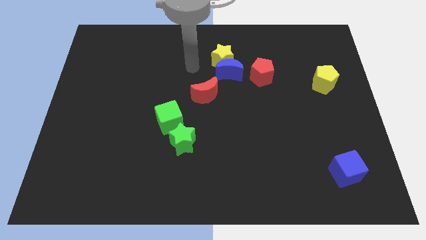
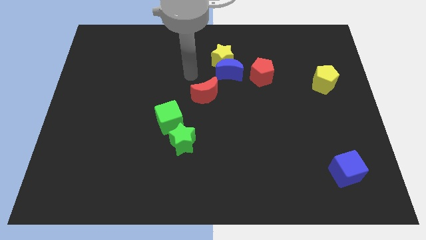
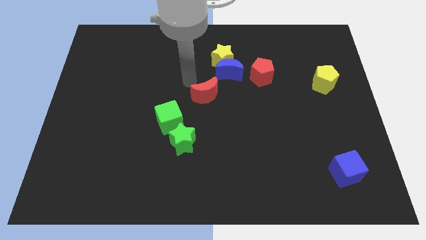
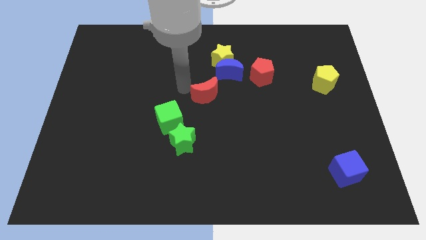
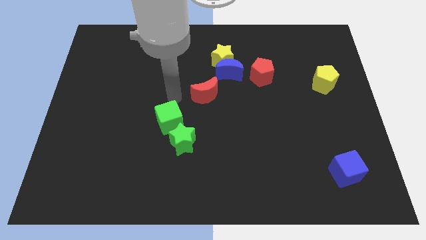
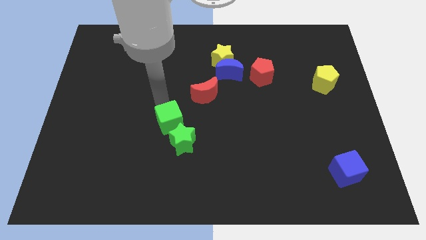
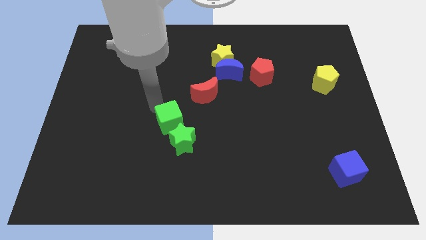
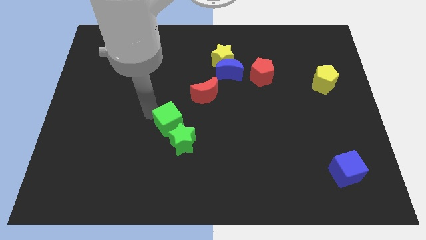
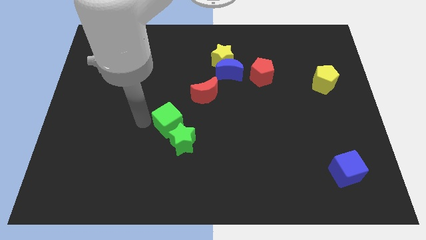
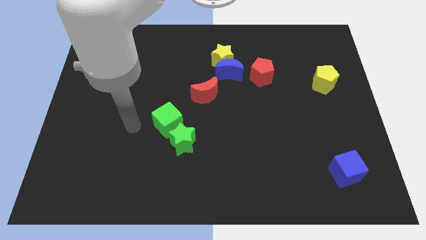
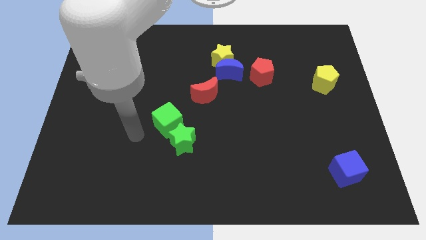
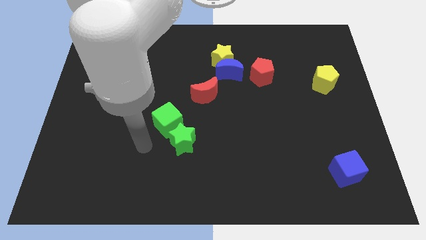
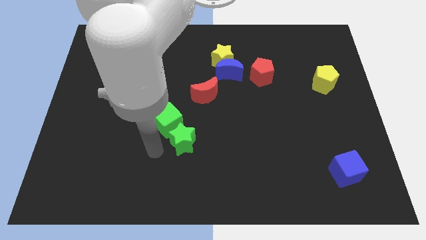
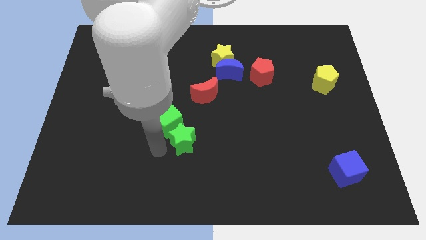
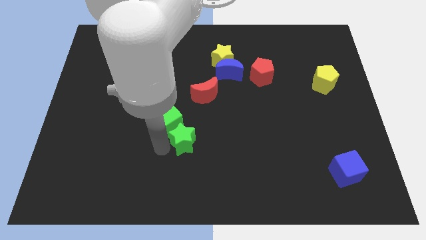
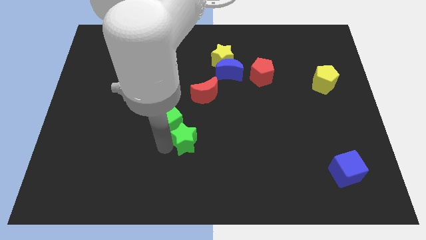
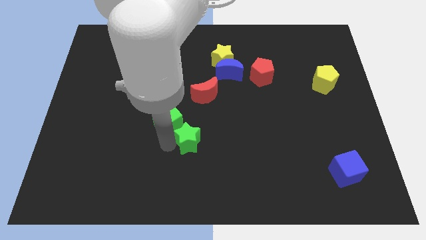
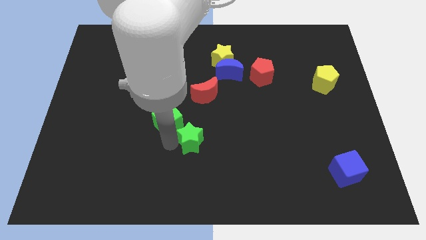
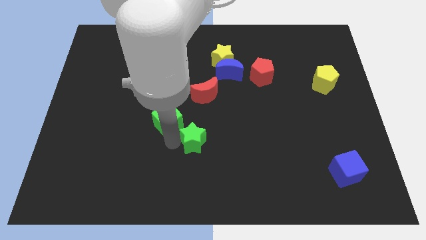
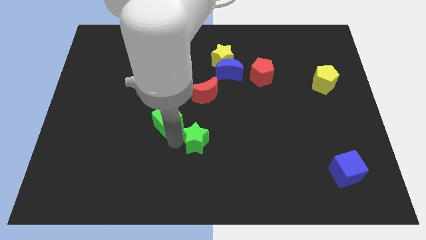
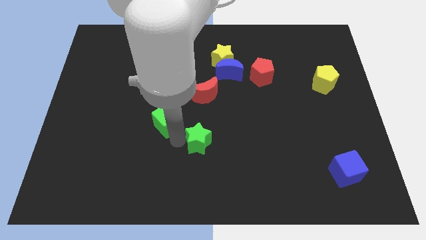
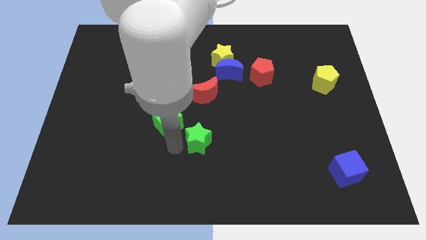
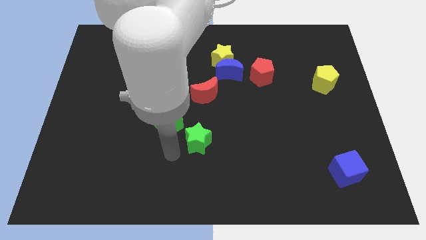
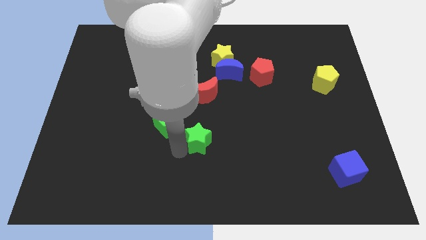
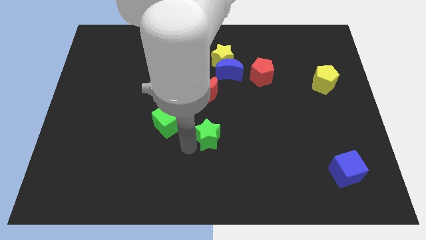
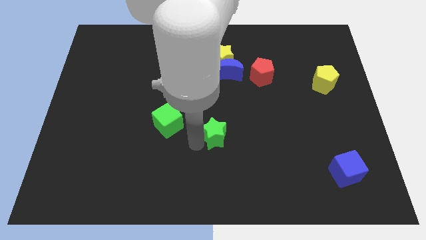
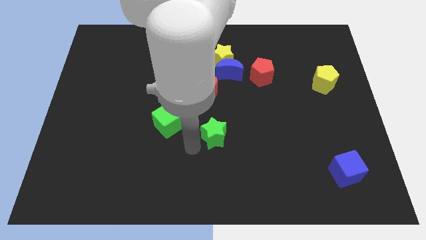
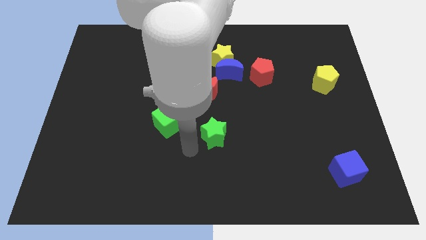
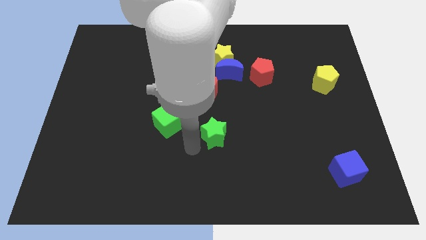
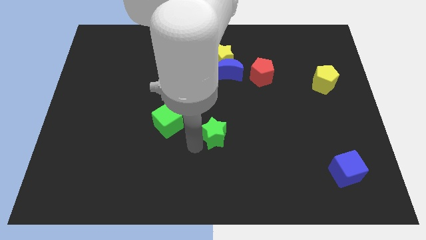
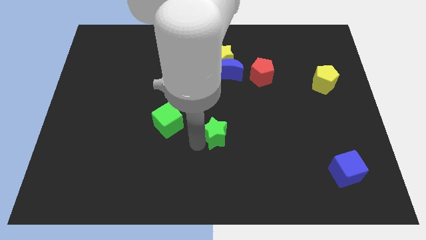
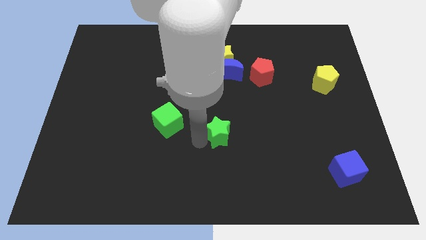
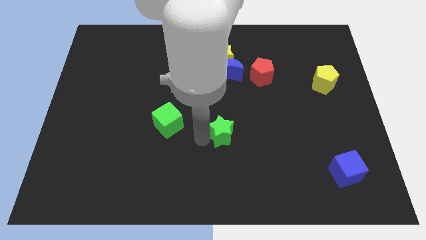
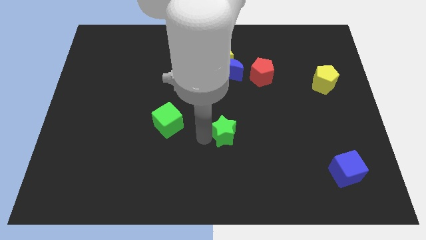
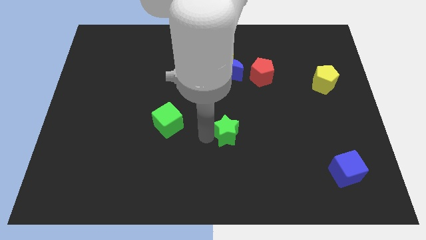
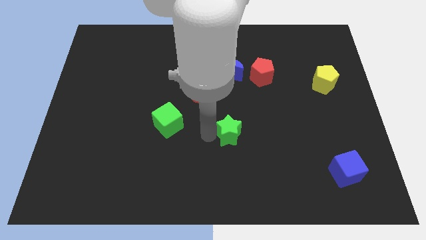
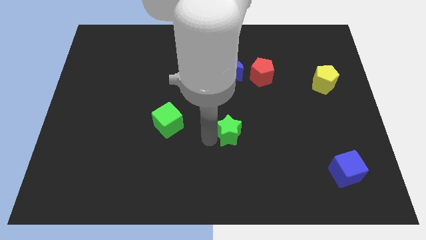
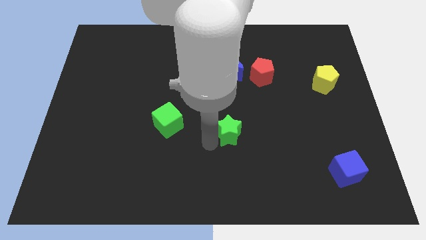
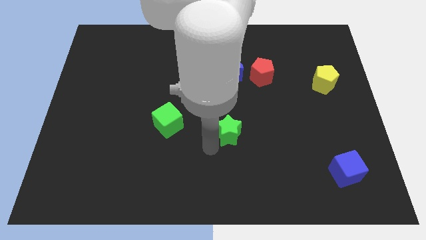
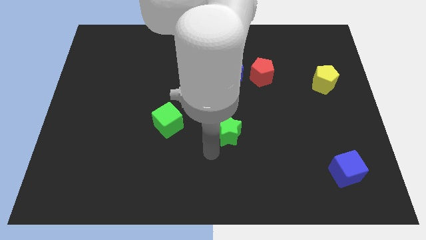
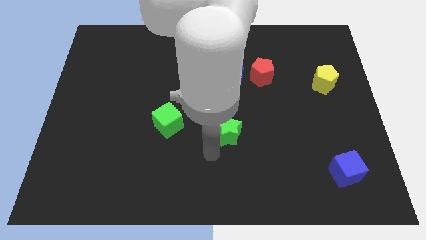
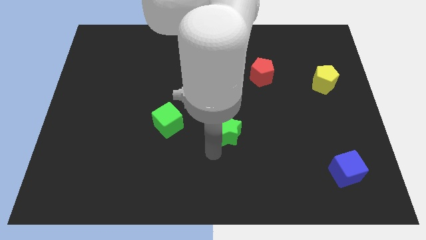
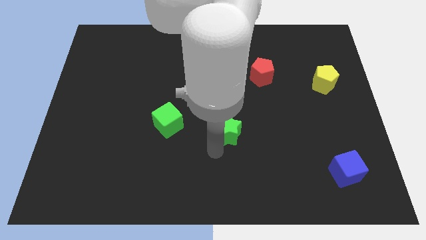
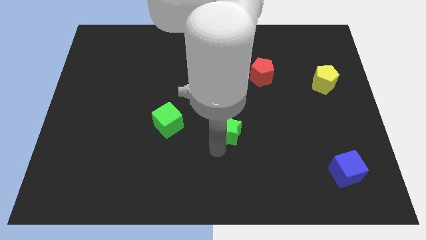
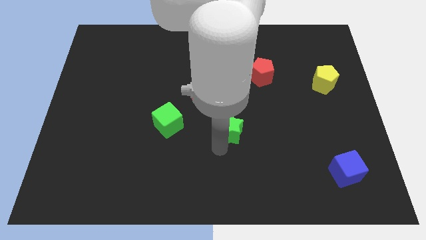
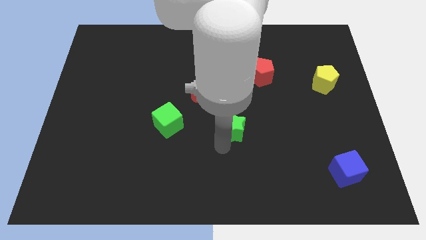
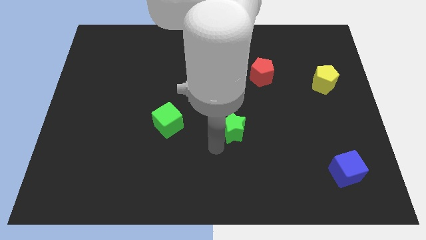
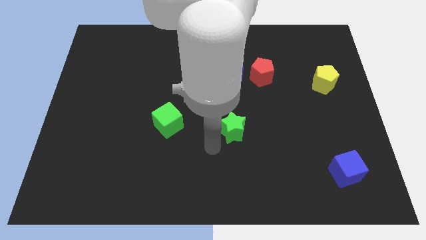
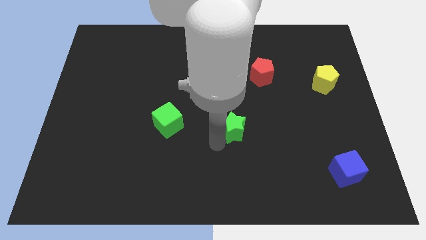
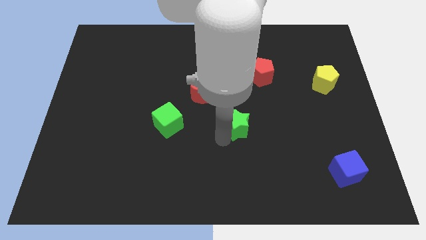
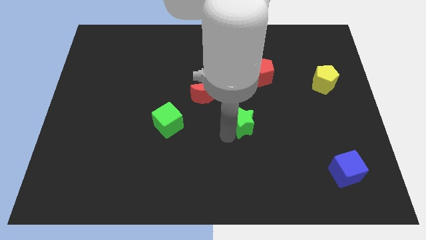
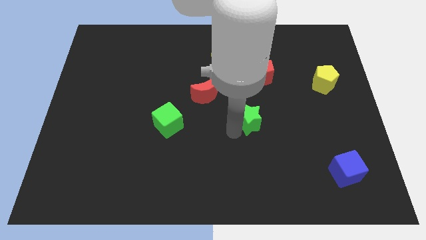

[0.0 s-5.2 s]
move the green star to the bottom of the red pentagon

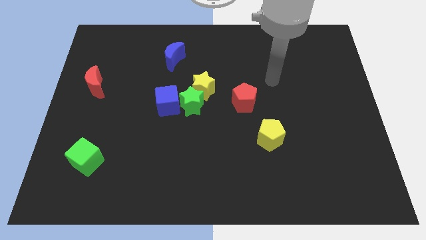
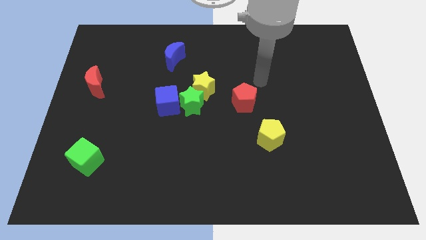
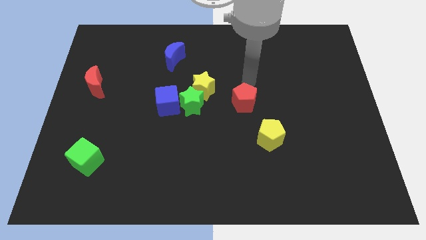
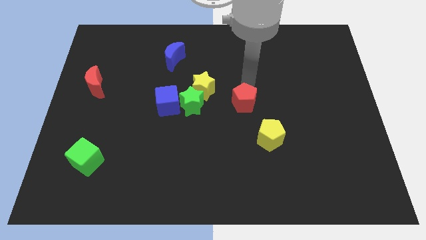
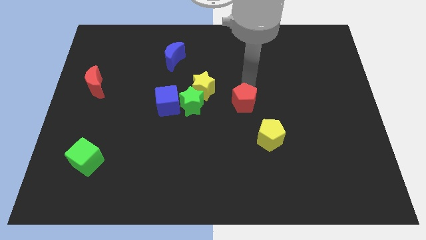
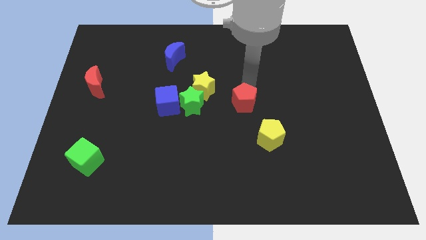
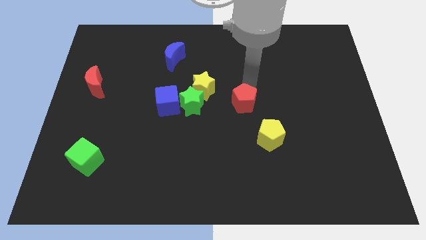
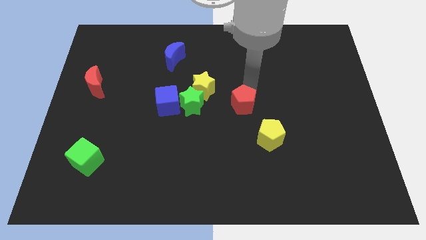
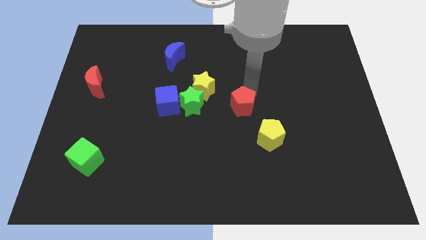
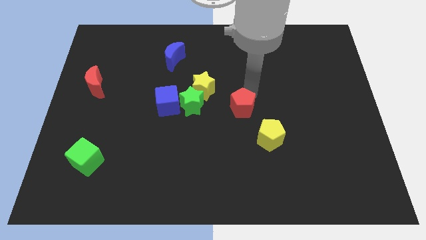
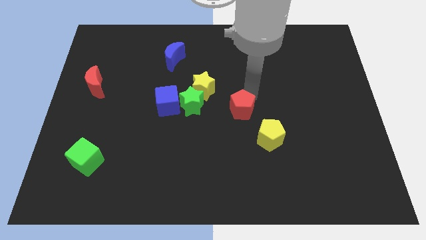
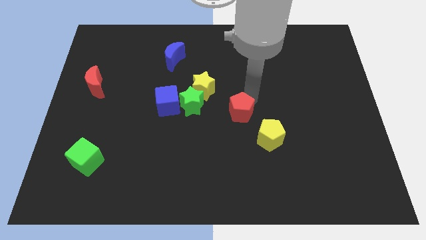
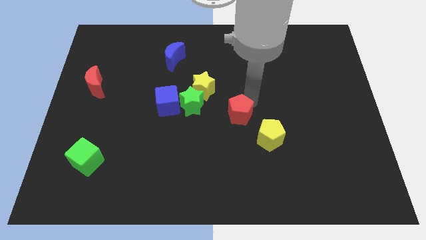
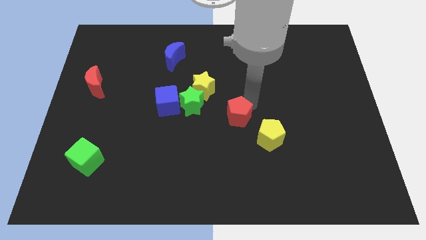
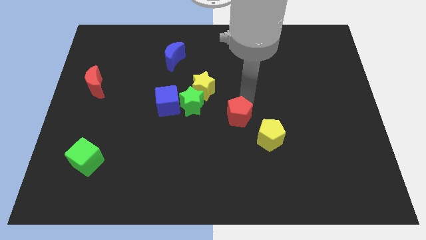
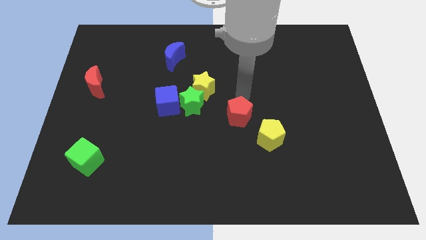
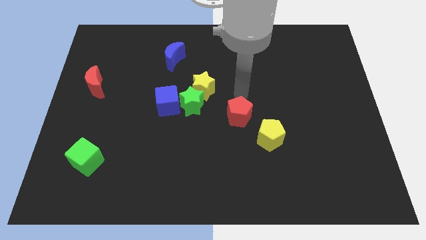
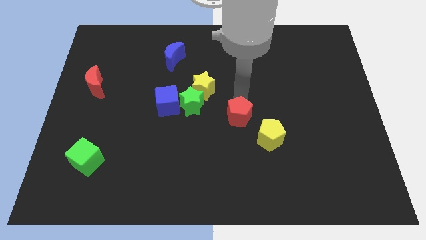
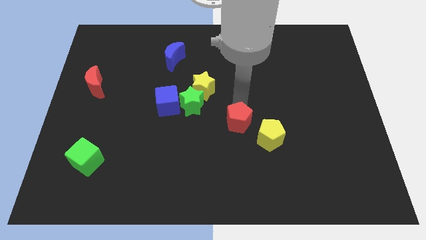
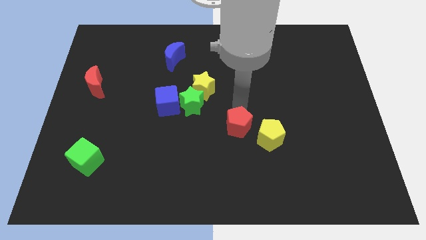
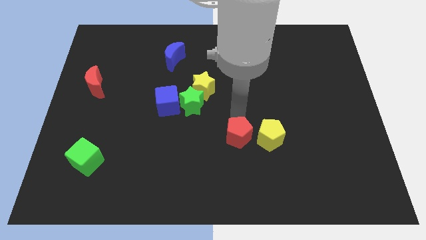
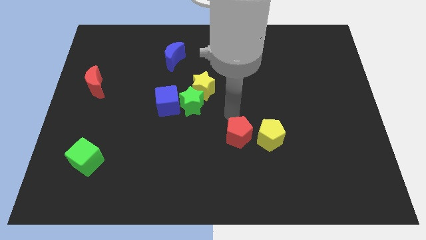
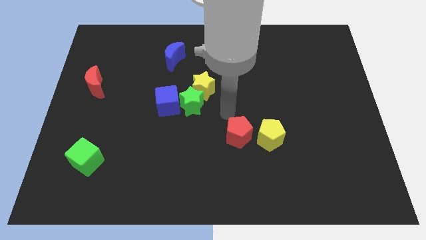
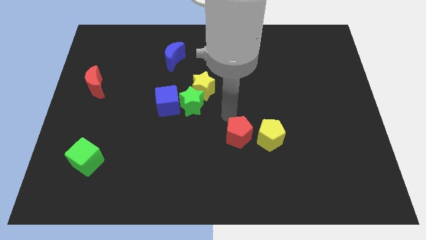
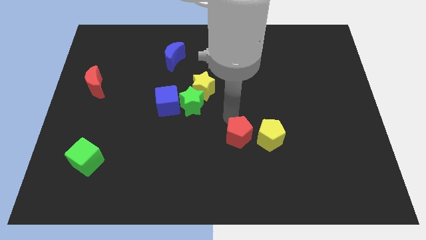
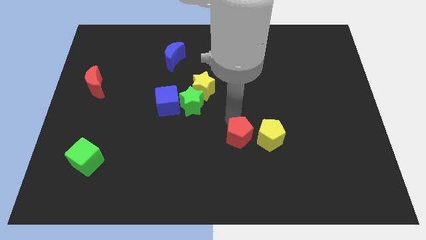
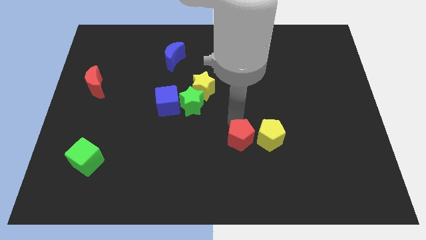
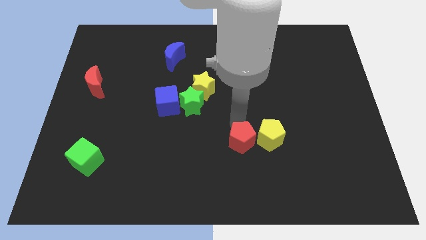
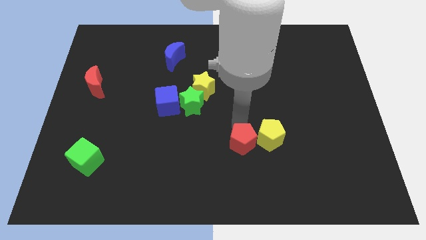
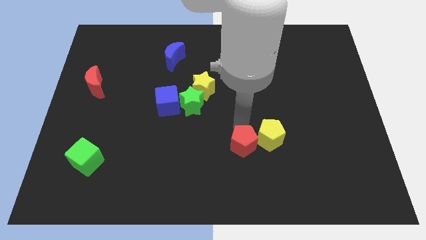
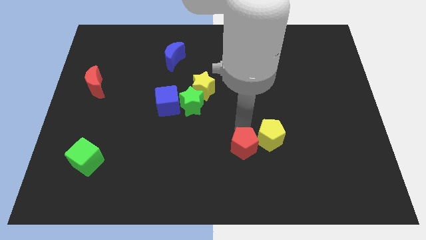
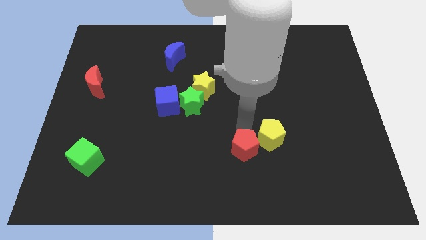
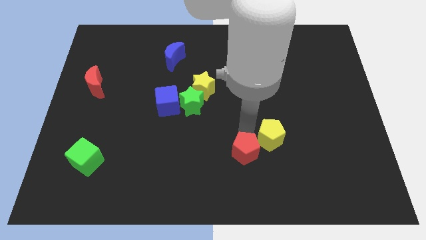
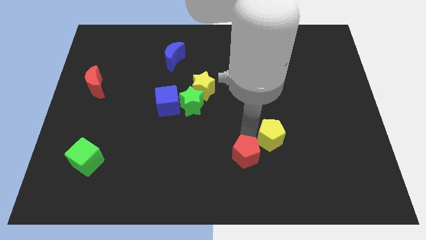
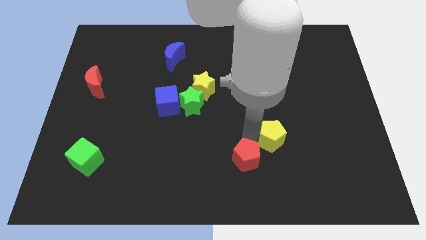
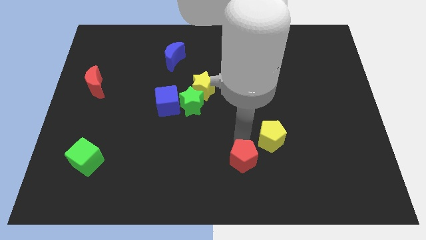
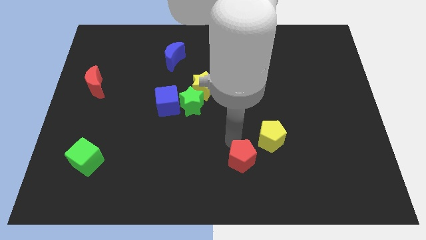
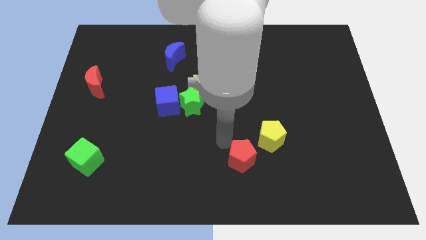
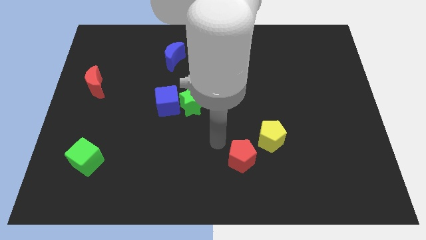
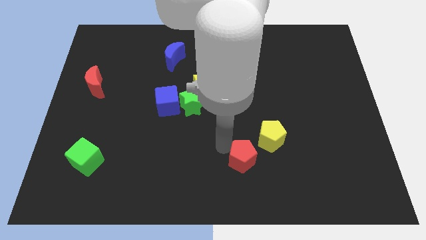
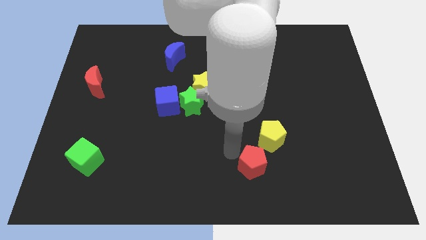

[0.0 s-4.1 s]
put the red pentagon to the bottom of the yellow pentagon
